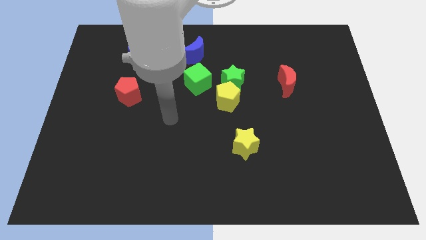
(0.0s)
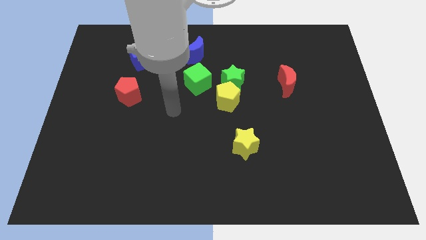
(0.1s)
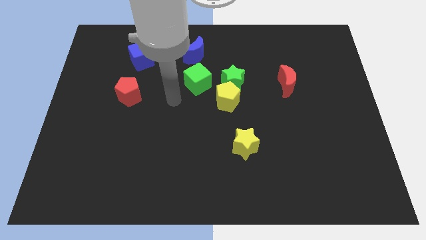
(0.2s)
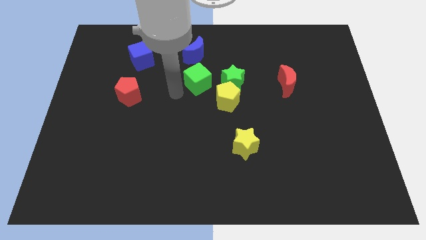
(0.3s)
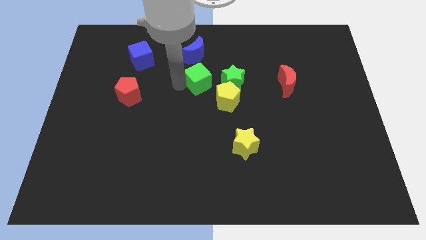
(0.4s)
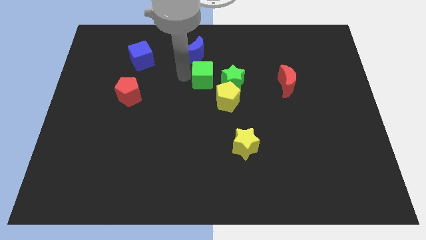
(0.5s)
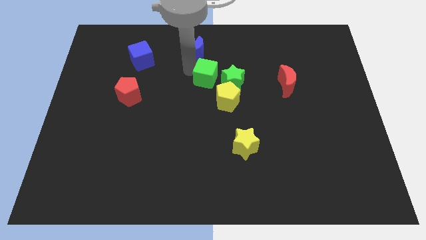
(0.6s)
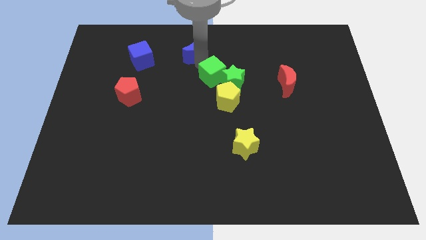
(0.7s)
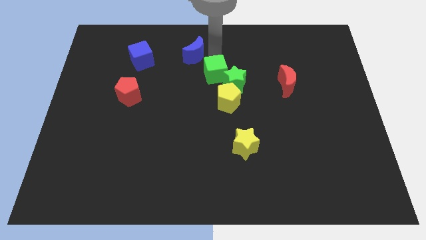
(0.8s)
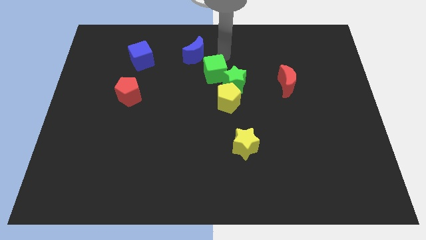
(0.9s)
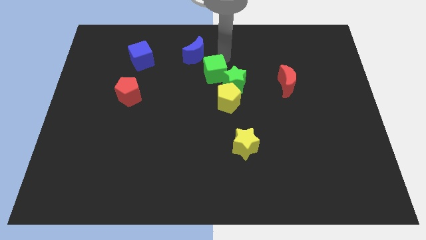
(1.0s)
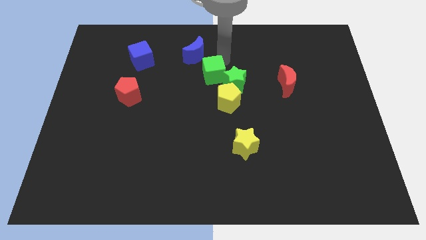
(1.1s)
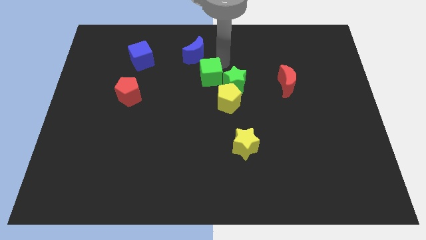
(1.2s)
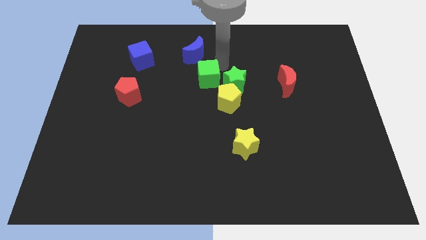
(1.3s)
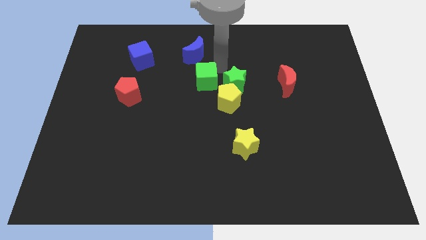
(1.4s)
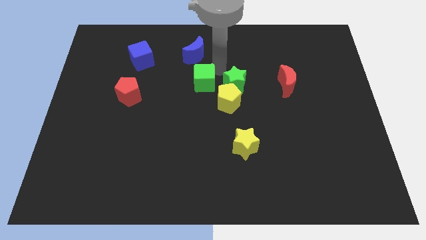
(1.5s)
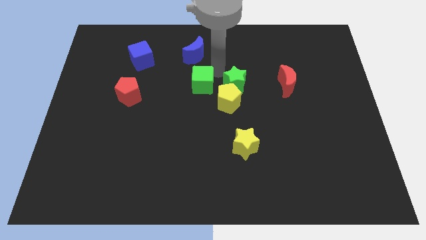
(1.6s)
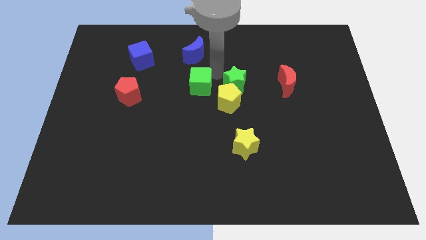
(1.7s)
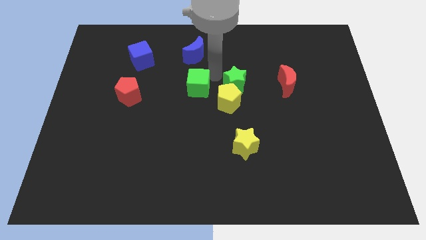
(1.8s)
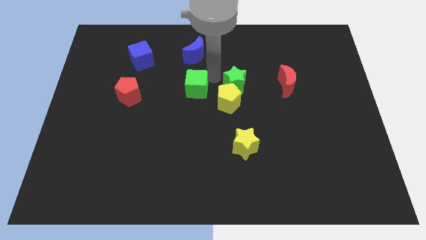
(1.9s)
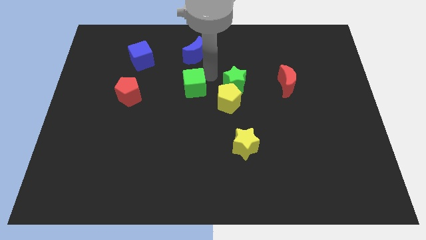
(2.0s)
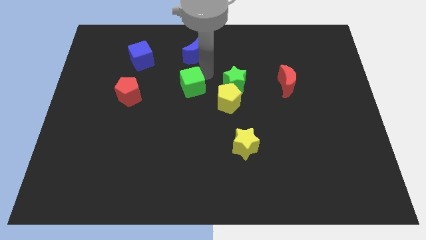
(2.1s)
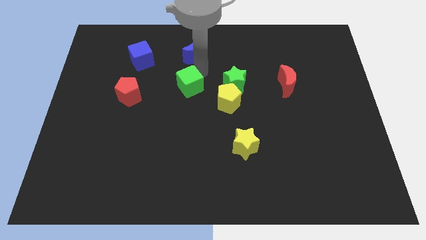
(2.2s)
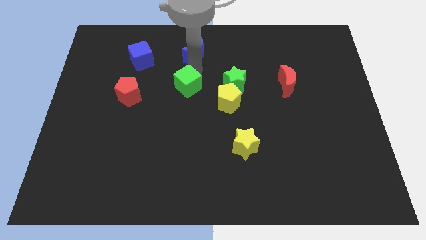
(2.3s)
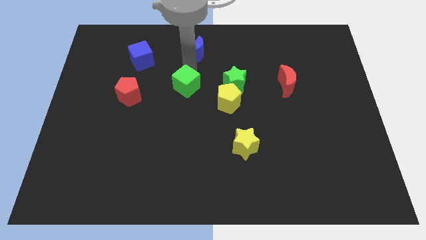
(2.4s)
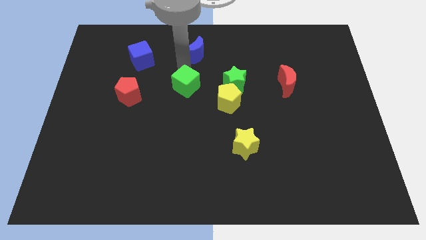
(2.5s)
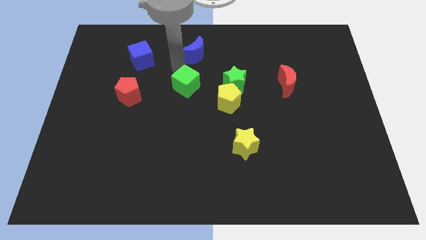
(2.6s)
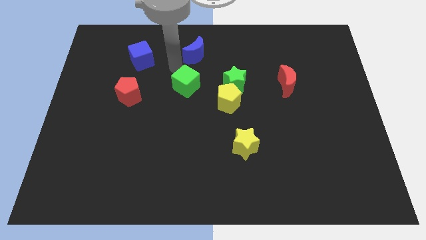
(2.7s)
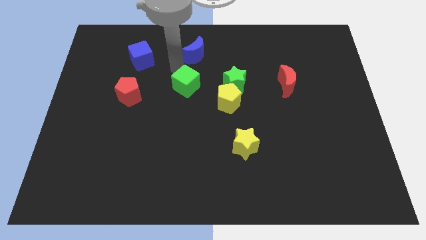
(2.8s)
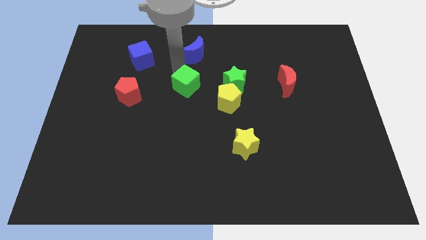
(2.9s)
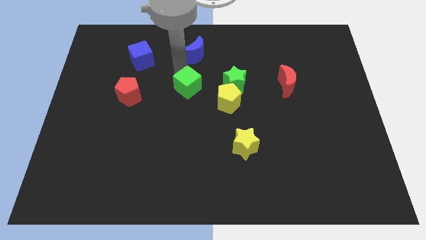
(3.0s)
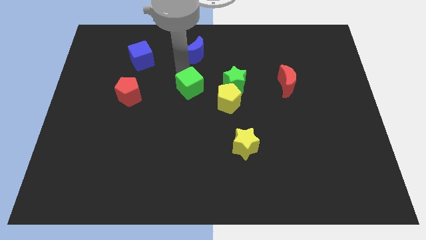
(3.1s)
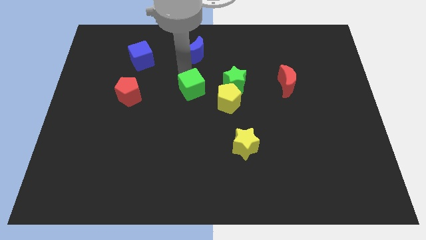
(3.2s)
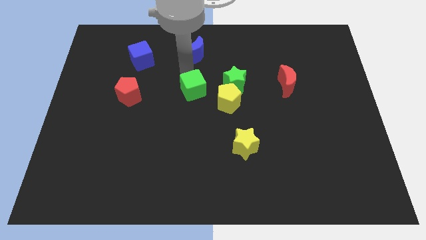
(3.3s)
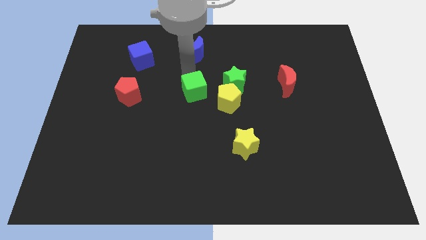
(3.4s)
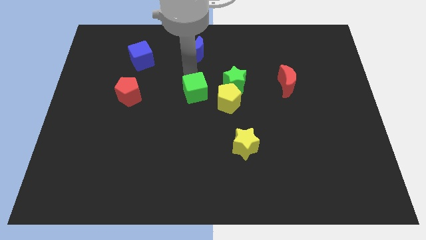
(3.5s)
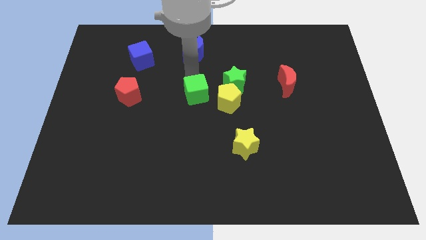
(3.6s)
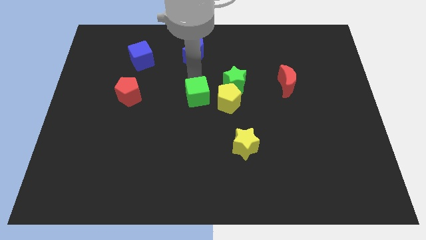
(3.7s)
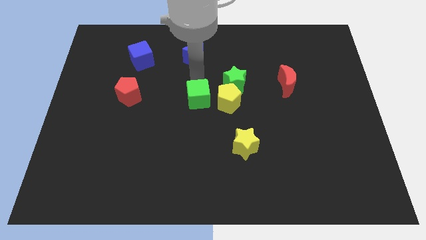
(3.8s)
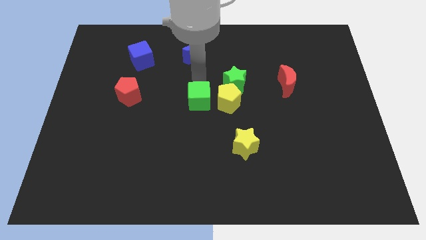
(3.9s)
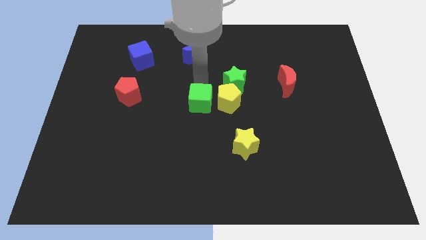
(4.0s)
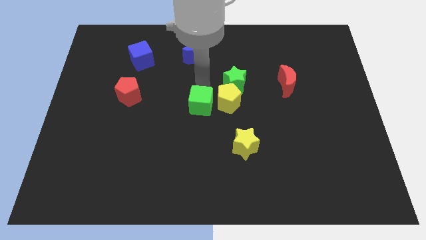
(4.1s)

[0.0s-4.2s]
push the green cube down slightly

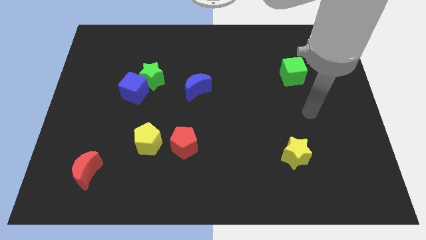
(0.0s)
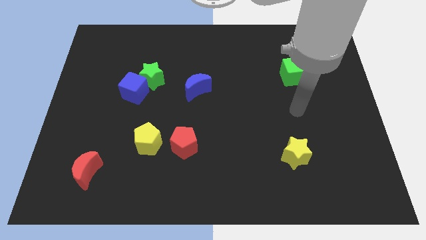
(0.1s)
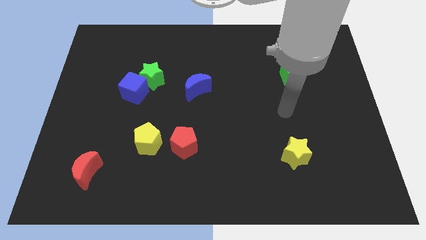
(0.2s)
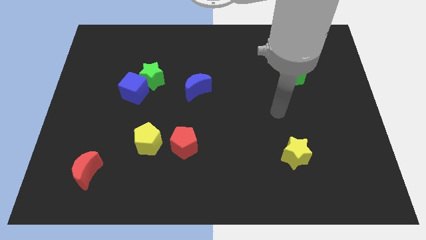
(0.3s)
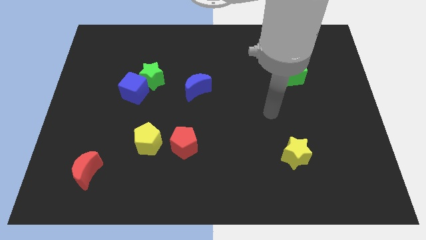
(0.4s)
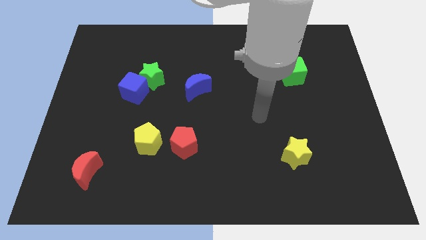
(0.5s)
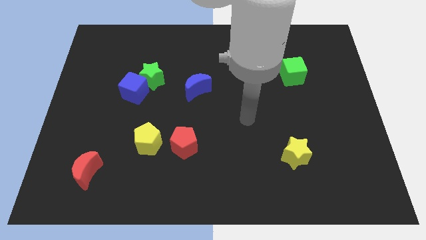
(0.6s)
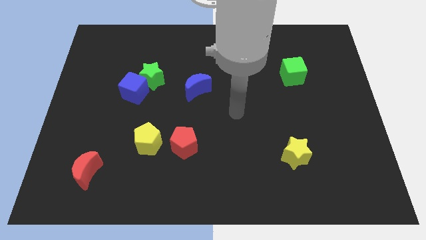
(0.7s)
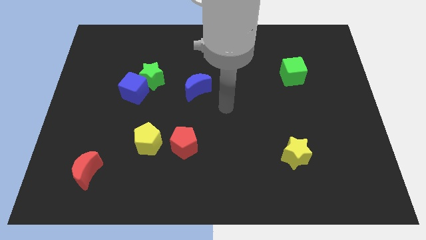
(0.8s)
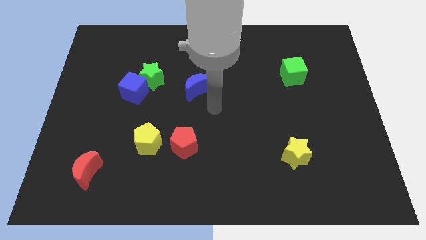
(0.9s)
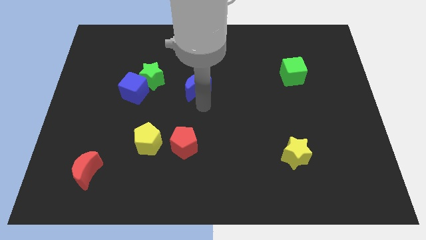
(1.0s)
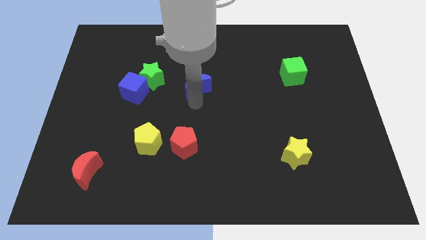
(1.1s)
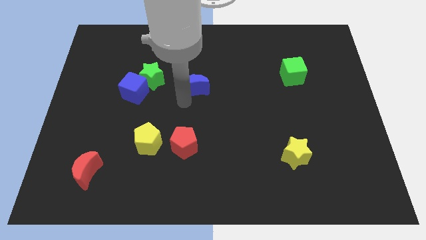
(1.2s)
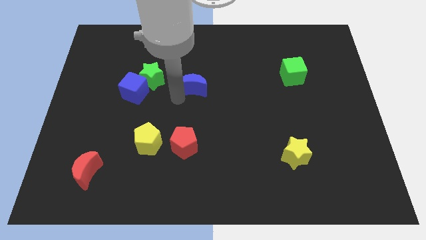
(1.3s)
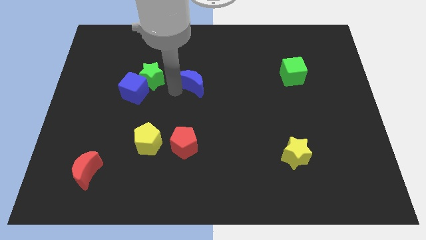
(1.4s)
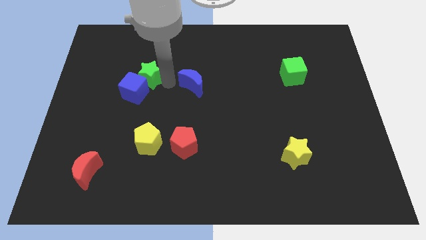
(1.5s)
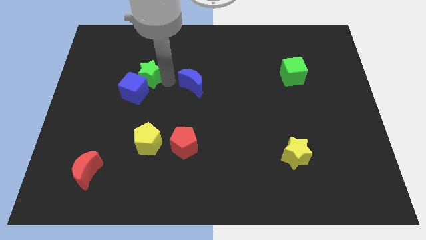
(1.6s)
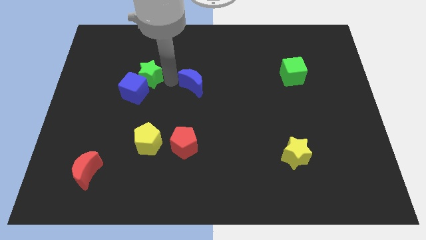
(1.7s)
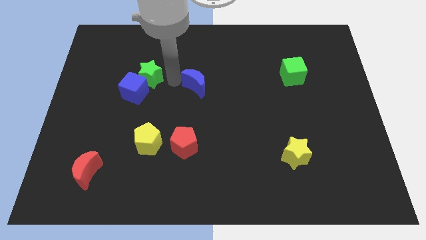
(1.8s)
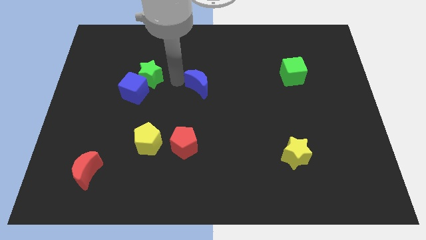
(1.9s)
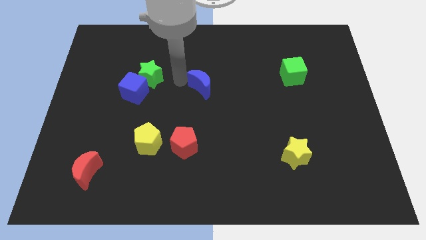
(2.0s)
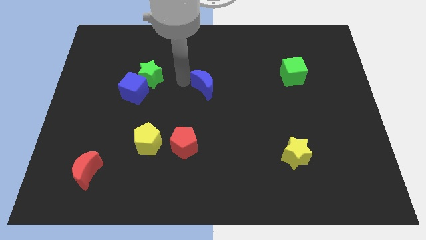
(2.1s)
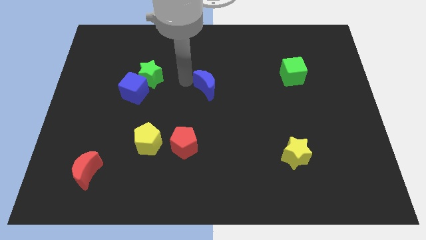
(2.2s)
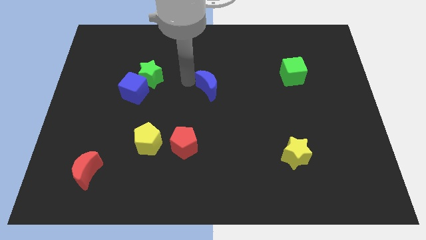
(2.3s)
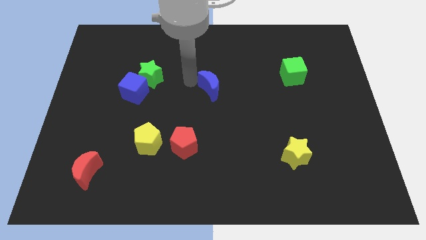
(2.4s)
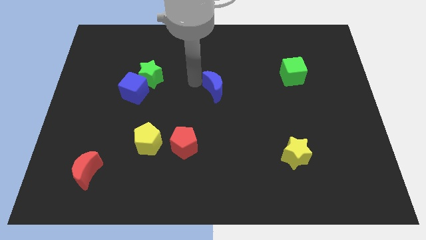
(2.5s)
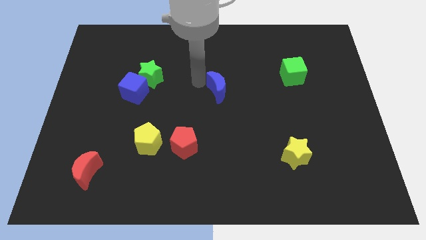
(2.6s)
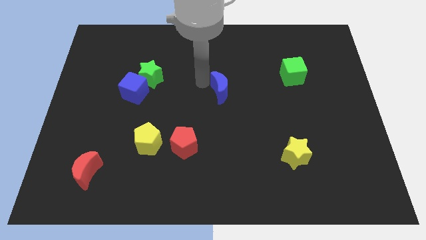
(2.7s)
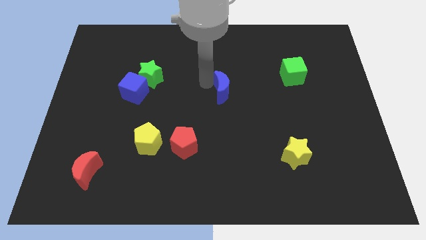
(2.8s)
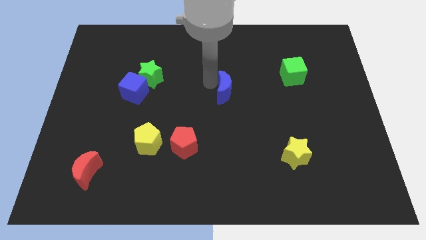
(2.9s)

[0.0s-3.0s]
slightly push the blue moon right

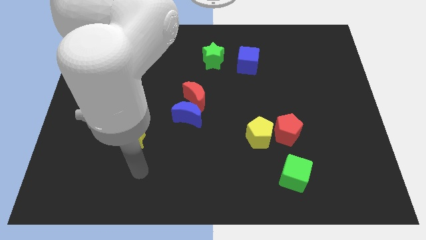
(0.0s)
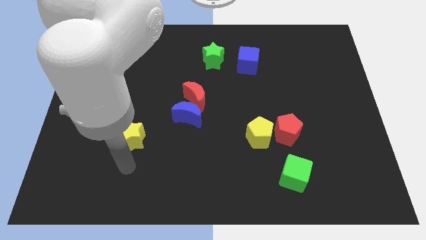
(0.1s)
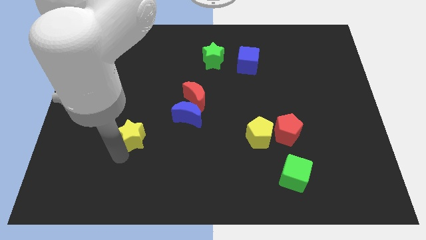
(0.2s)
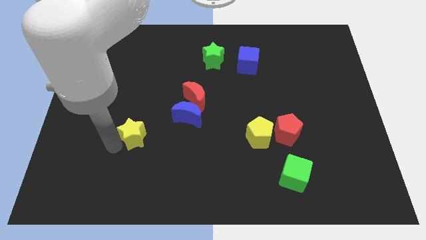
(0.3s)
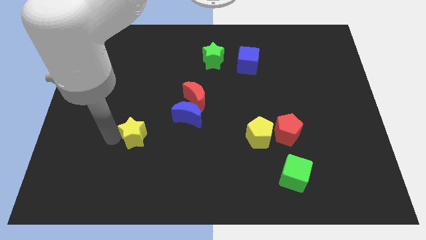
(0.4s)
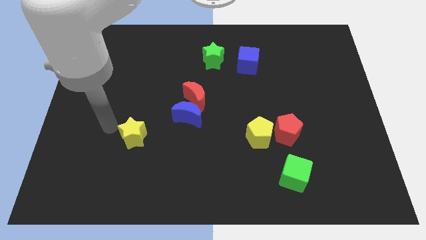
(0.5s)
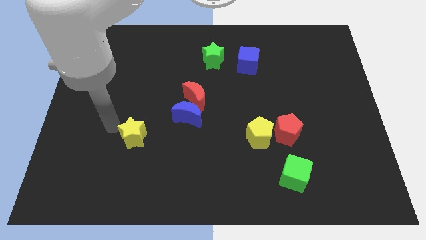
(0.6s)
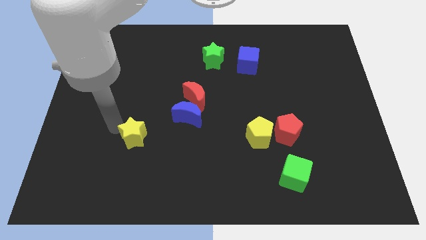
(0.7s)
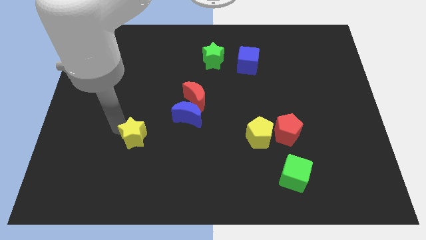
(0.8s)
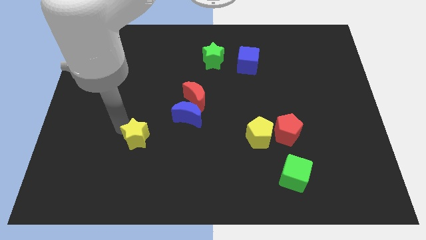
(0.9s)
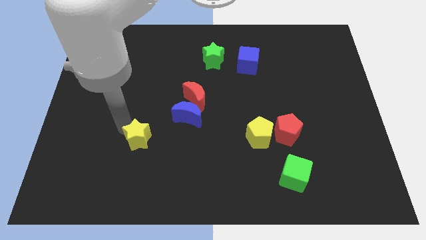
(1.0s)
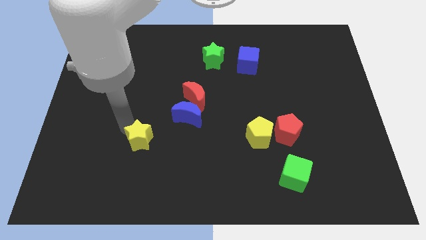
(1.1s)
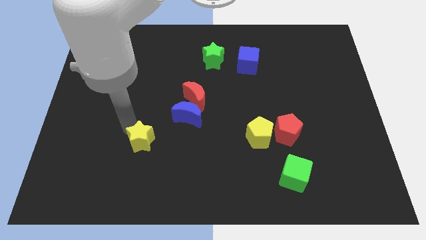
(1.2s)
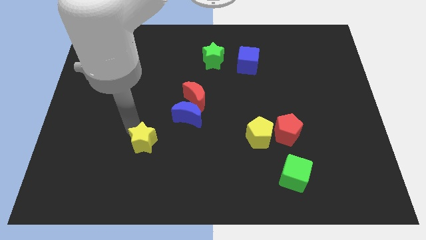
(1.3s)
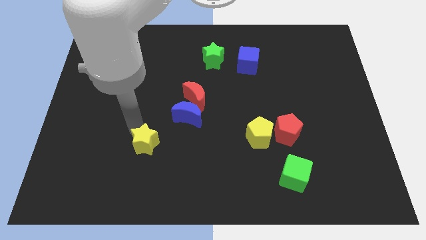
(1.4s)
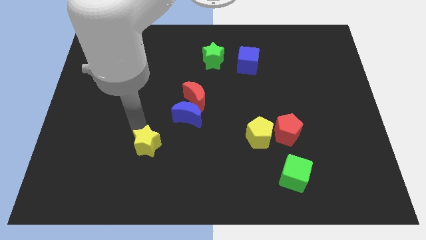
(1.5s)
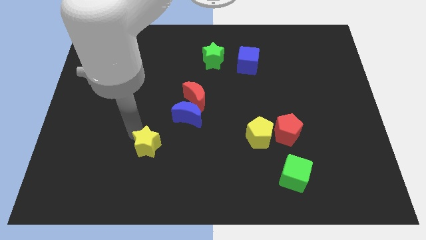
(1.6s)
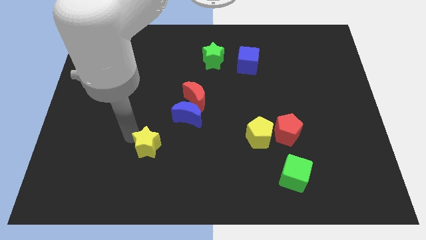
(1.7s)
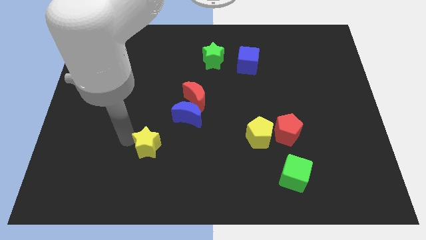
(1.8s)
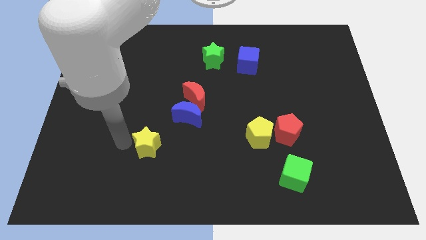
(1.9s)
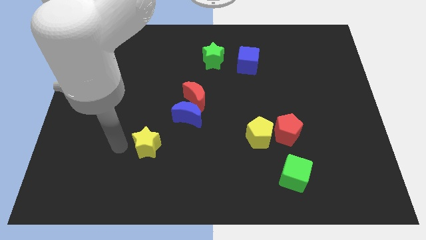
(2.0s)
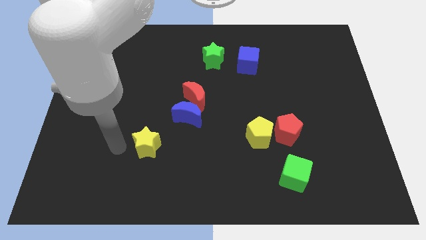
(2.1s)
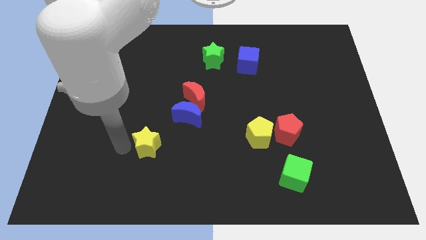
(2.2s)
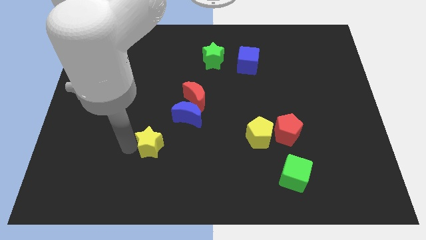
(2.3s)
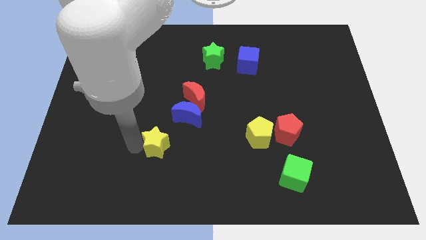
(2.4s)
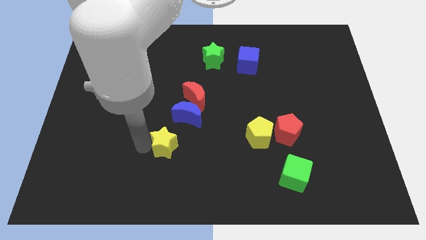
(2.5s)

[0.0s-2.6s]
slide the yellow star to the right a little bit
